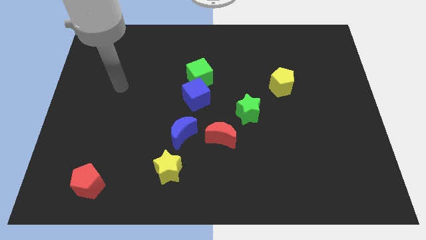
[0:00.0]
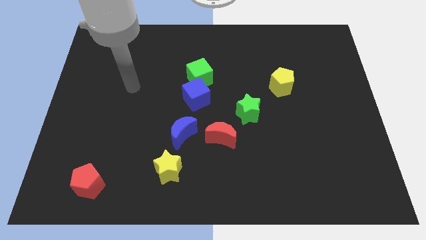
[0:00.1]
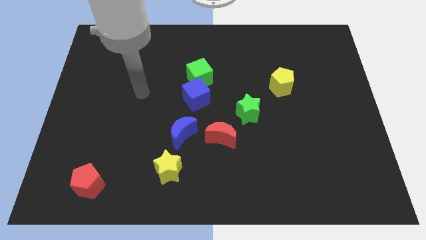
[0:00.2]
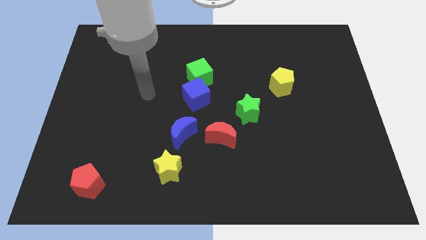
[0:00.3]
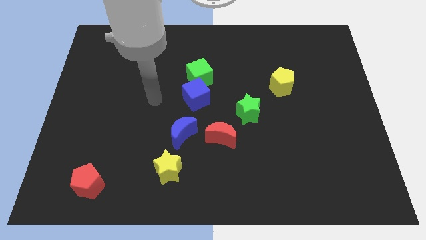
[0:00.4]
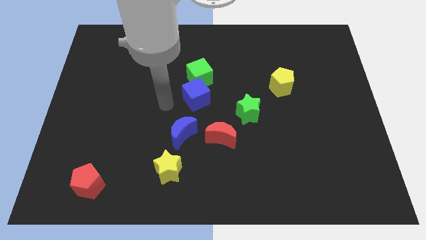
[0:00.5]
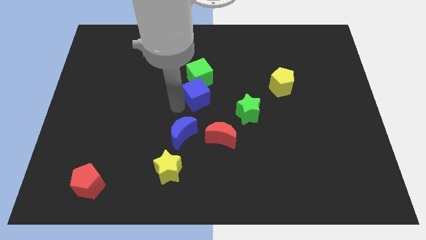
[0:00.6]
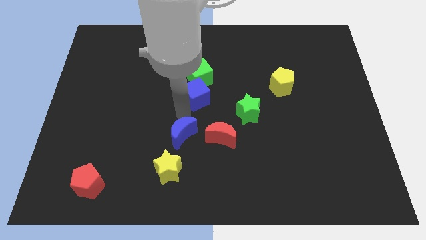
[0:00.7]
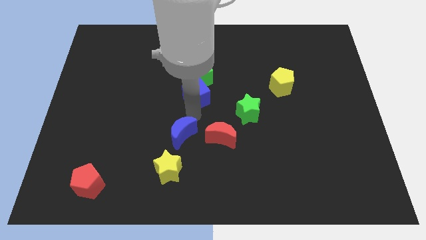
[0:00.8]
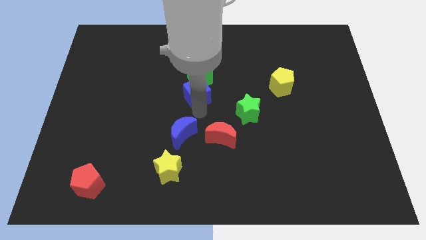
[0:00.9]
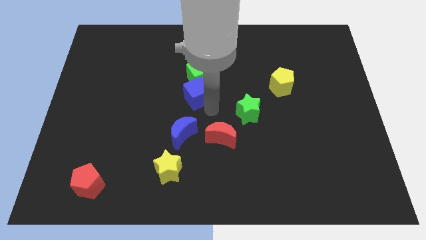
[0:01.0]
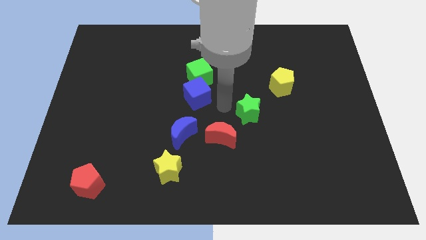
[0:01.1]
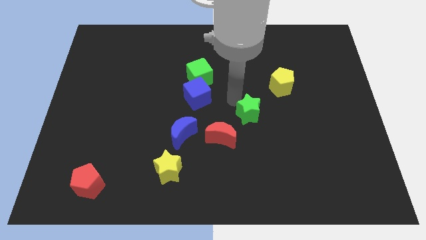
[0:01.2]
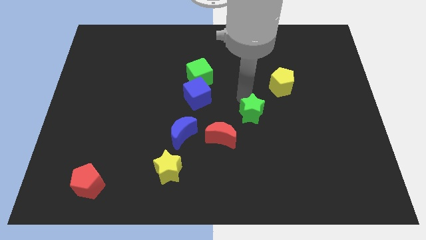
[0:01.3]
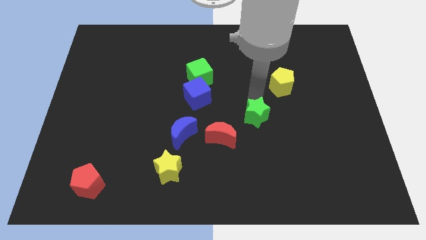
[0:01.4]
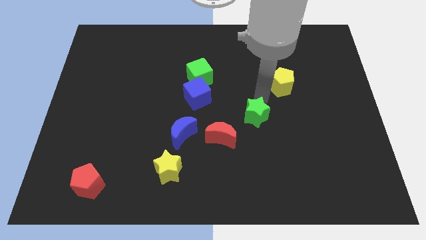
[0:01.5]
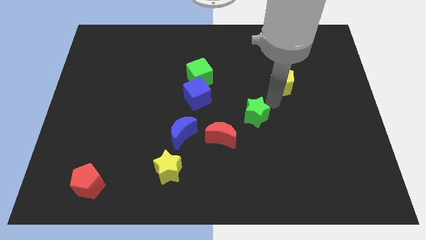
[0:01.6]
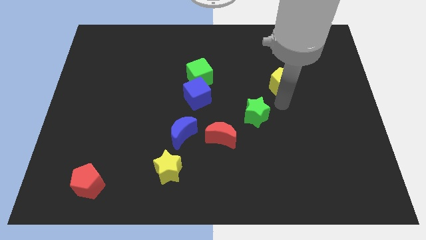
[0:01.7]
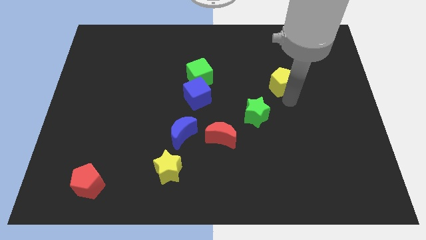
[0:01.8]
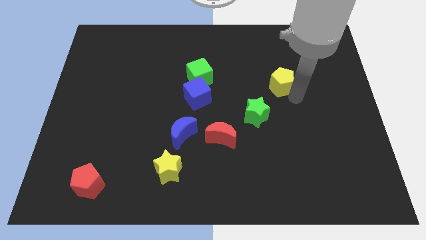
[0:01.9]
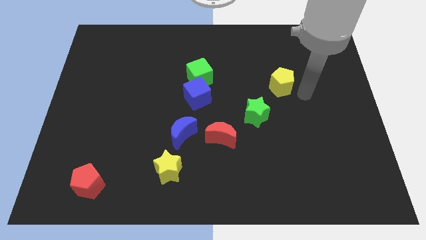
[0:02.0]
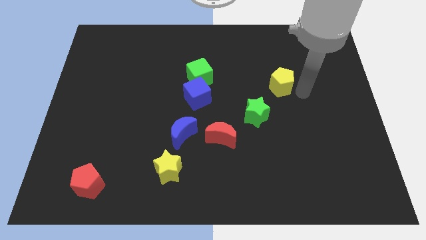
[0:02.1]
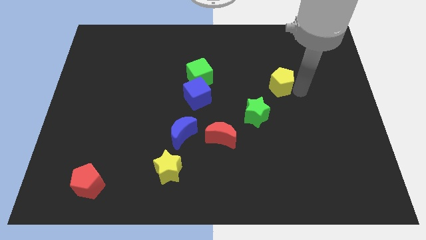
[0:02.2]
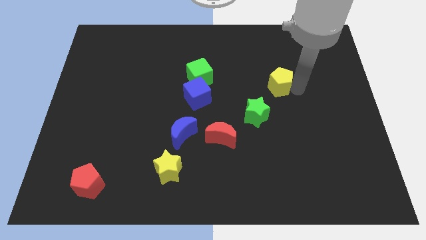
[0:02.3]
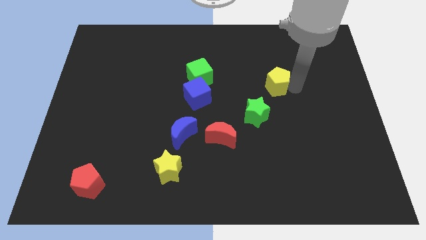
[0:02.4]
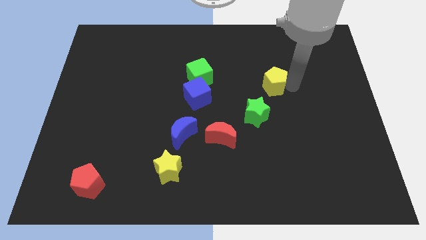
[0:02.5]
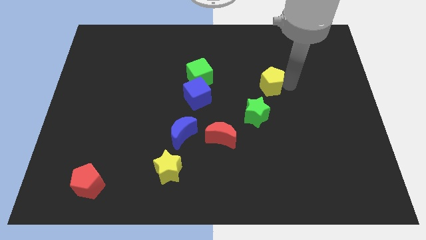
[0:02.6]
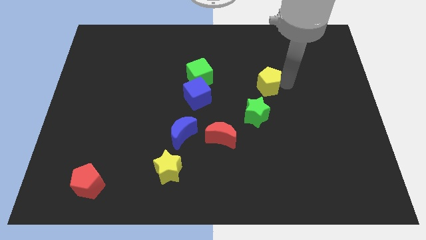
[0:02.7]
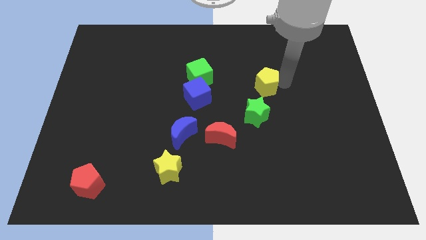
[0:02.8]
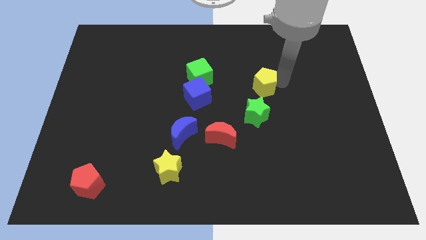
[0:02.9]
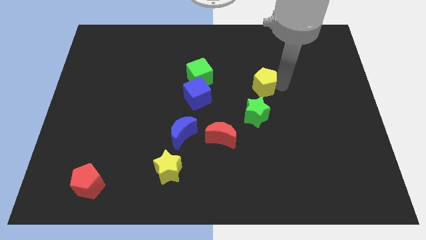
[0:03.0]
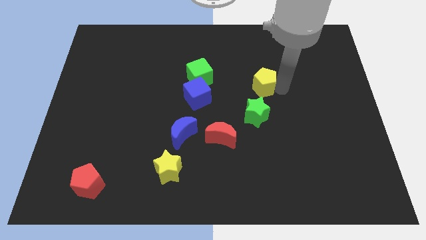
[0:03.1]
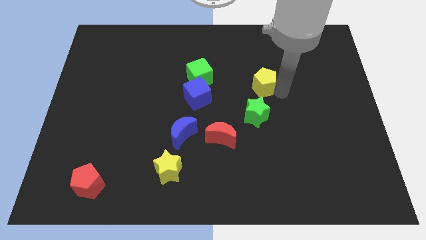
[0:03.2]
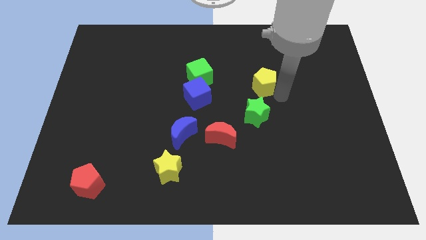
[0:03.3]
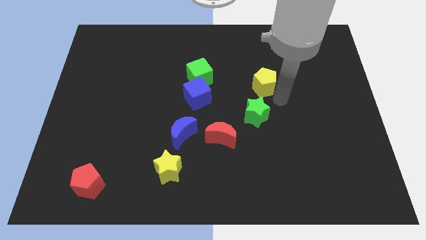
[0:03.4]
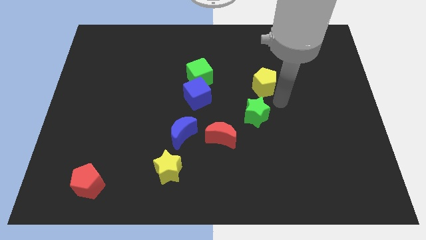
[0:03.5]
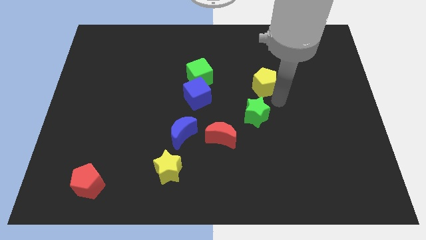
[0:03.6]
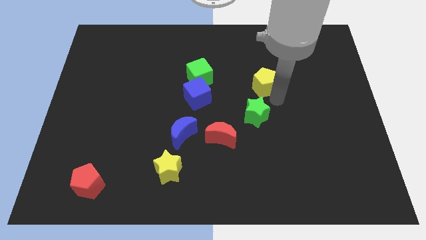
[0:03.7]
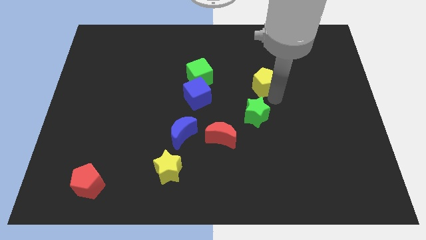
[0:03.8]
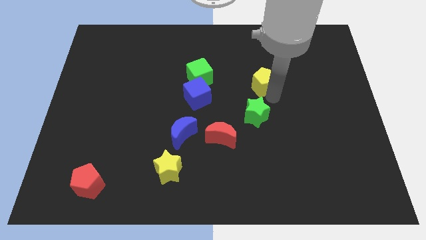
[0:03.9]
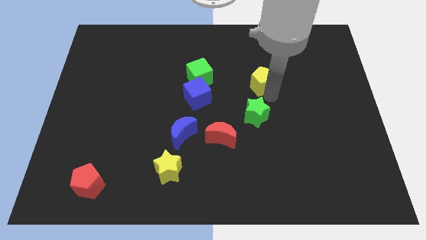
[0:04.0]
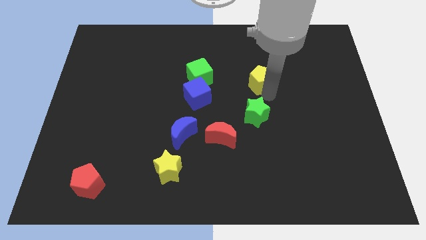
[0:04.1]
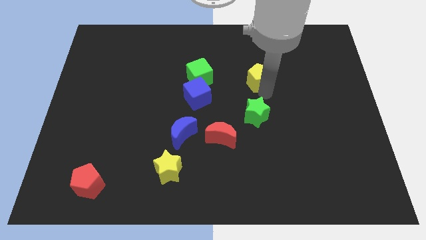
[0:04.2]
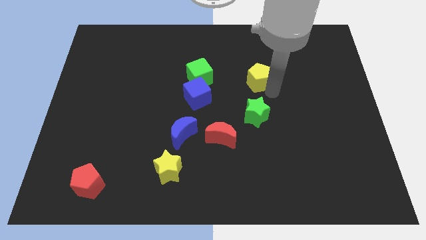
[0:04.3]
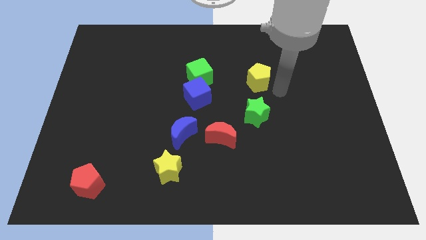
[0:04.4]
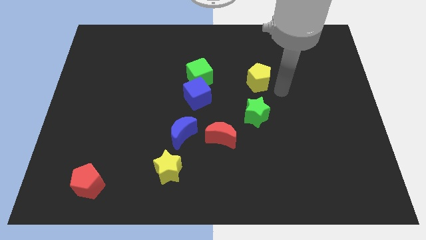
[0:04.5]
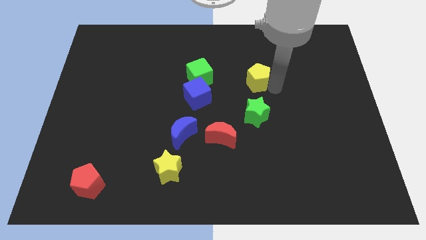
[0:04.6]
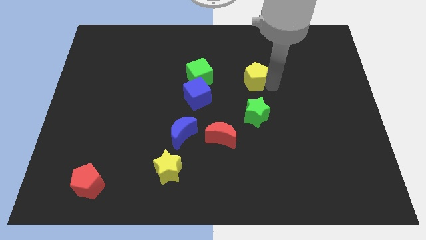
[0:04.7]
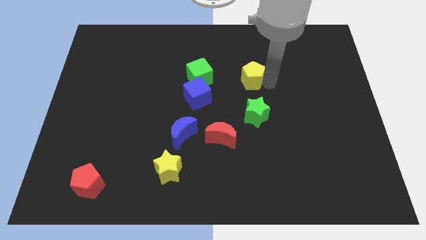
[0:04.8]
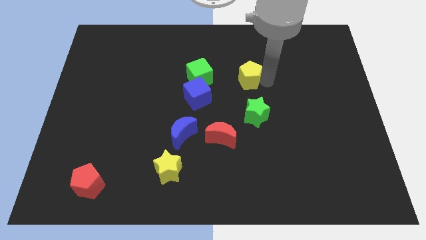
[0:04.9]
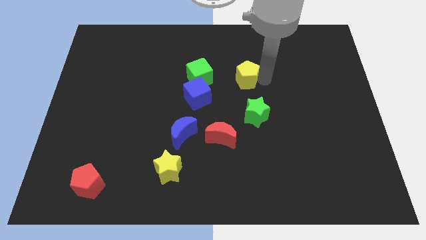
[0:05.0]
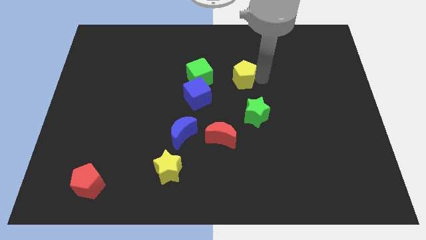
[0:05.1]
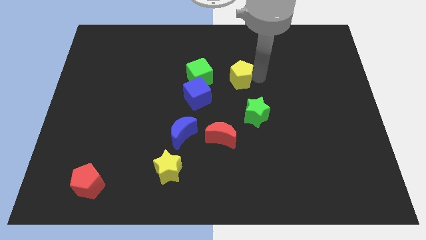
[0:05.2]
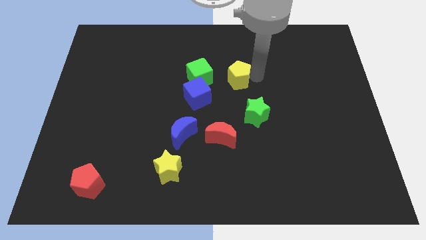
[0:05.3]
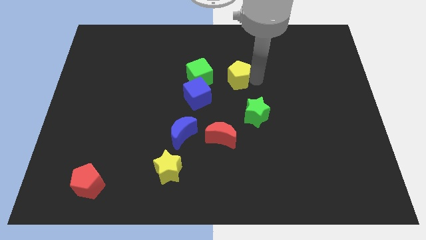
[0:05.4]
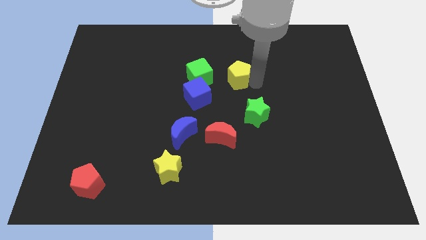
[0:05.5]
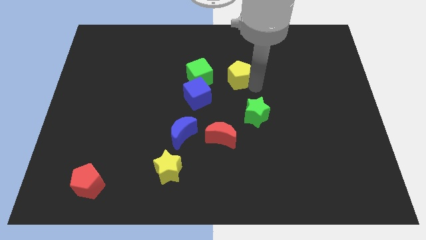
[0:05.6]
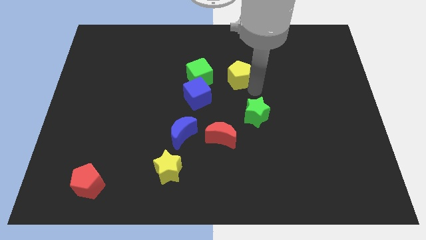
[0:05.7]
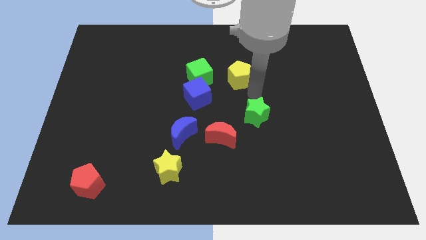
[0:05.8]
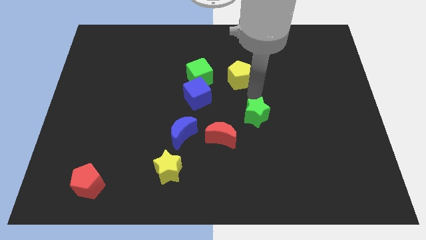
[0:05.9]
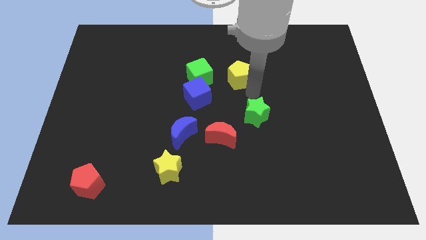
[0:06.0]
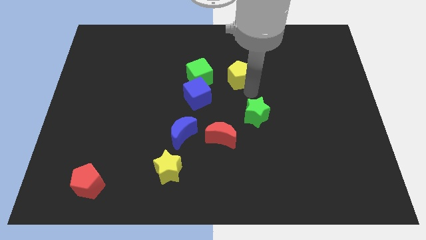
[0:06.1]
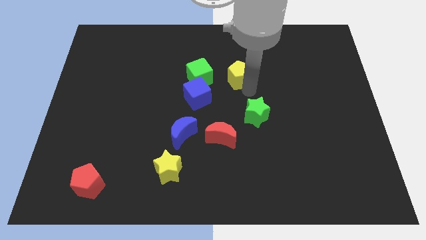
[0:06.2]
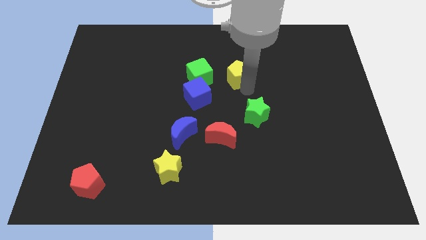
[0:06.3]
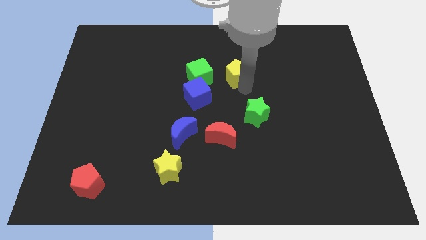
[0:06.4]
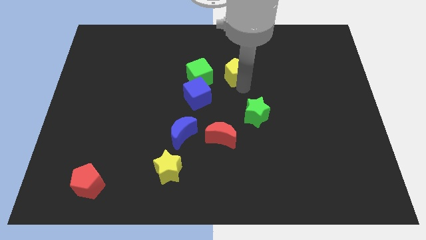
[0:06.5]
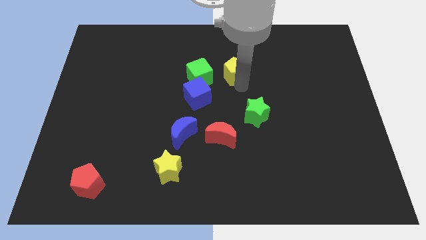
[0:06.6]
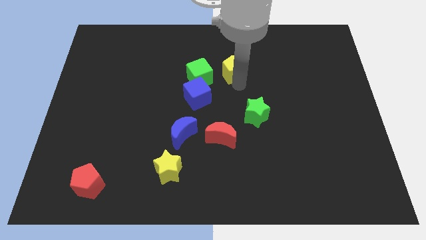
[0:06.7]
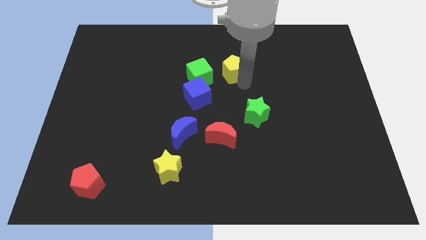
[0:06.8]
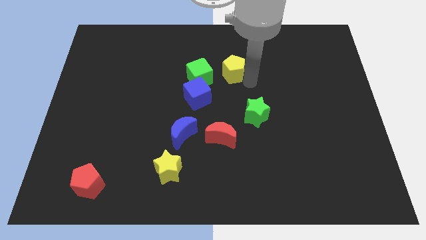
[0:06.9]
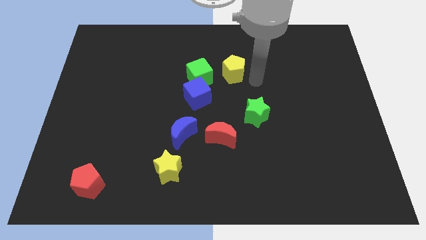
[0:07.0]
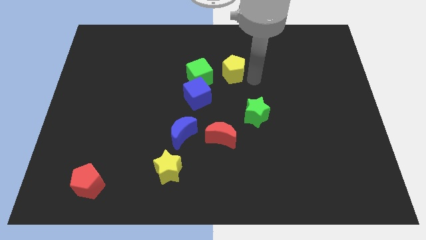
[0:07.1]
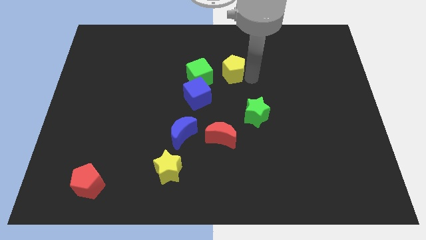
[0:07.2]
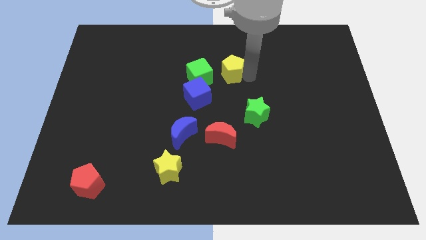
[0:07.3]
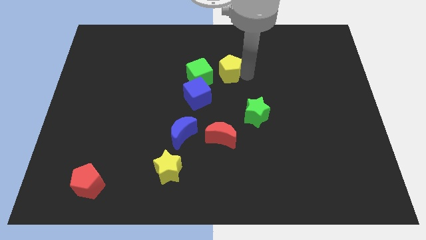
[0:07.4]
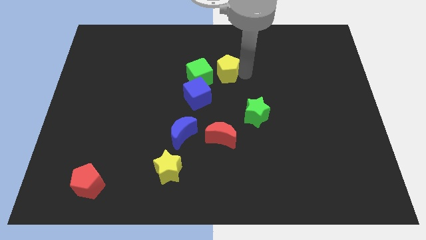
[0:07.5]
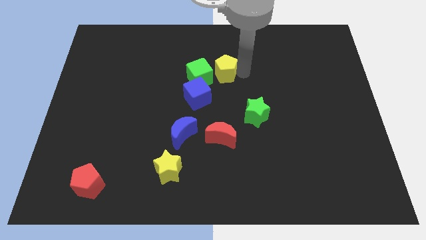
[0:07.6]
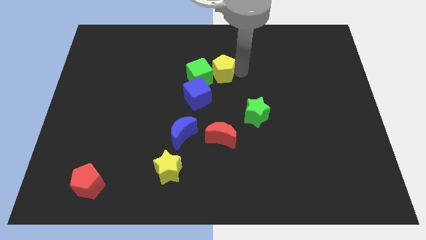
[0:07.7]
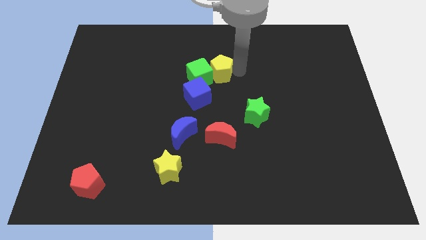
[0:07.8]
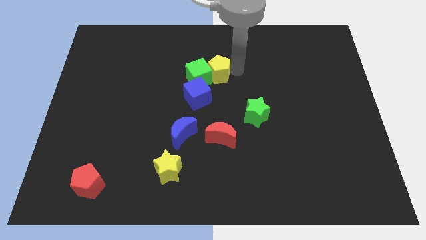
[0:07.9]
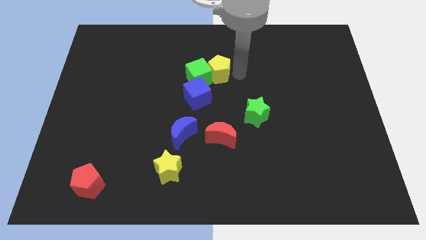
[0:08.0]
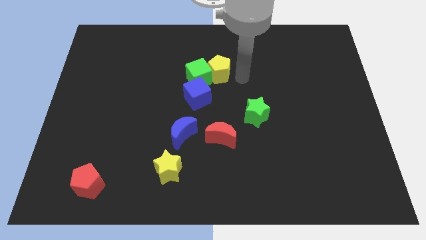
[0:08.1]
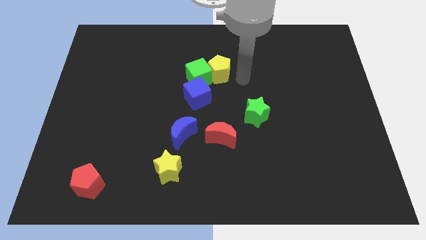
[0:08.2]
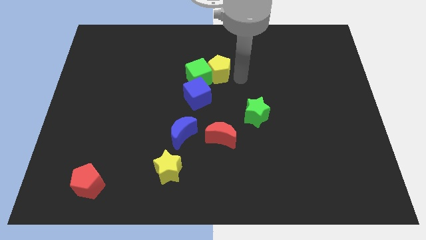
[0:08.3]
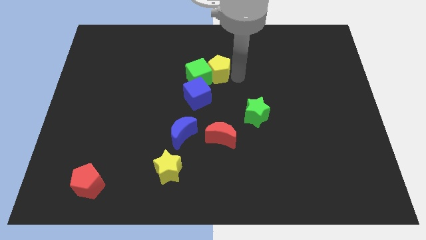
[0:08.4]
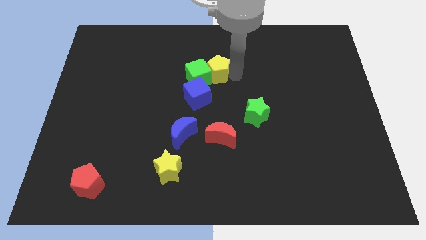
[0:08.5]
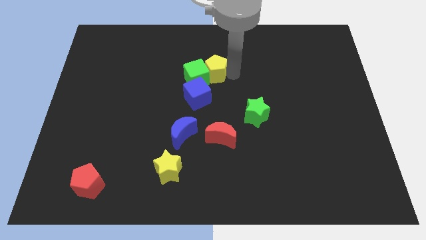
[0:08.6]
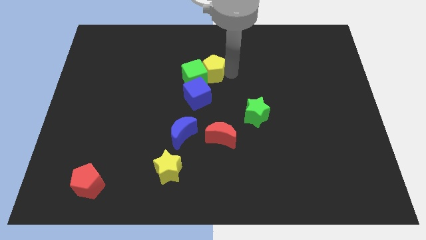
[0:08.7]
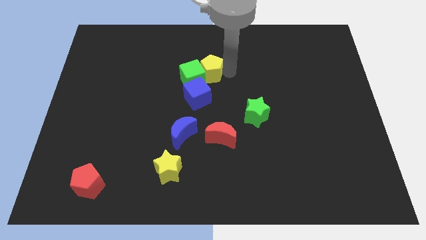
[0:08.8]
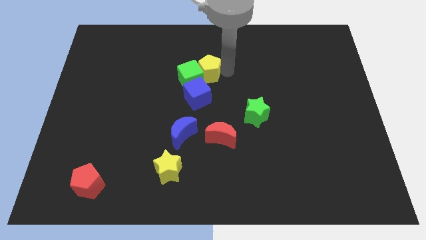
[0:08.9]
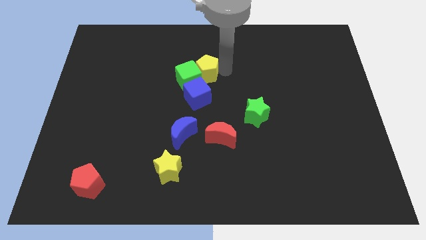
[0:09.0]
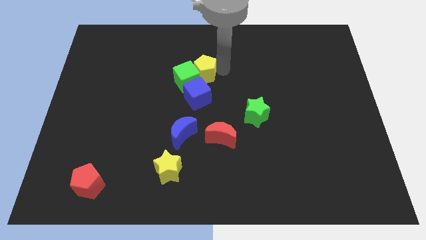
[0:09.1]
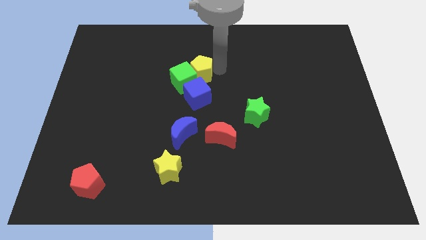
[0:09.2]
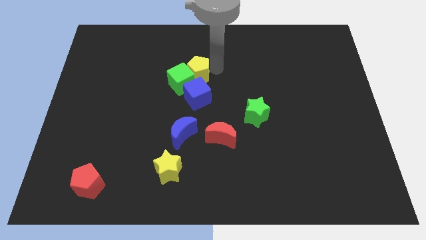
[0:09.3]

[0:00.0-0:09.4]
move the yellow pentagon to the left
